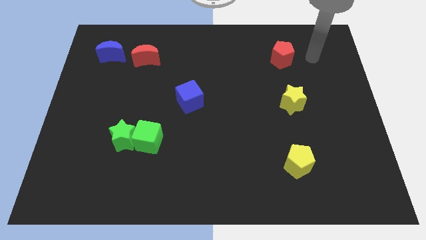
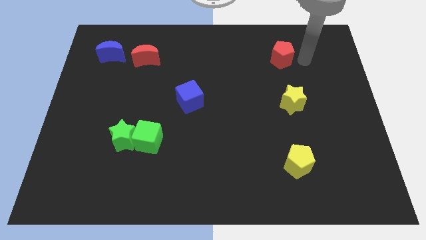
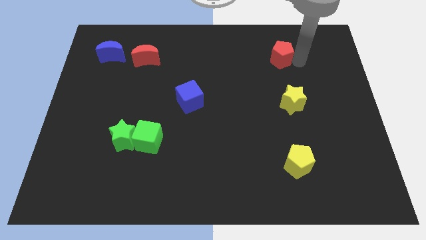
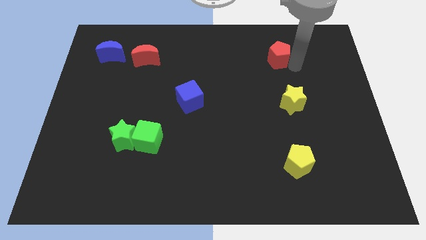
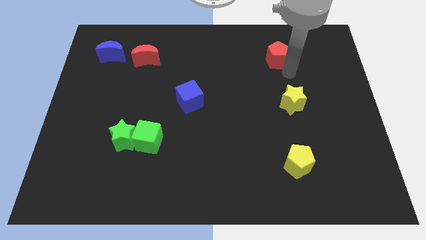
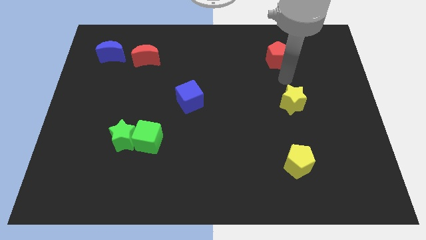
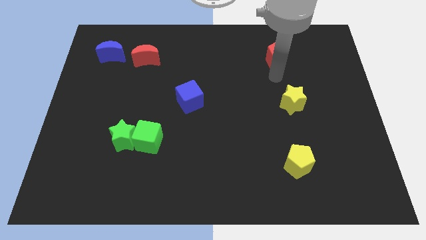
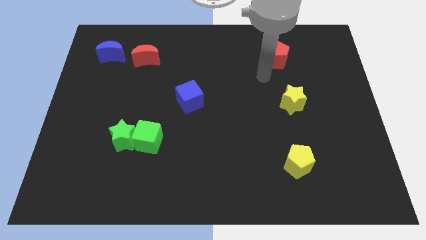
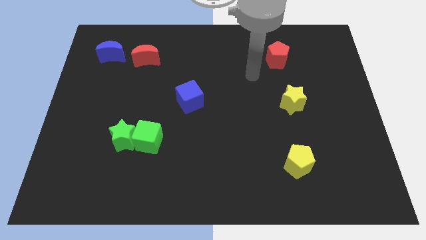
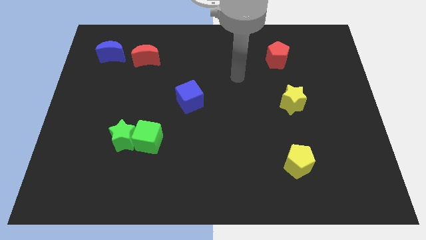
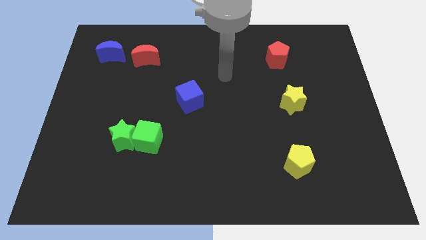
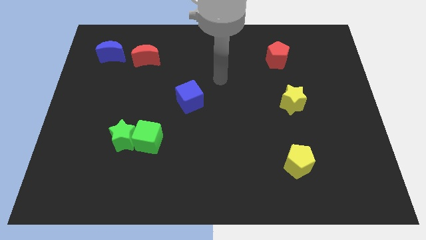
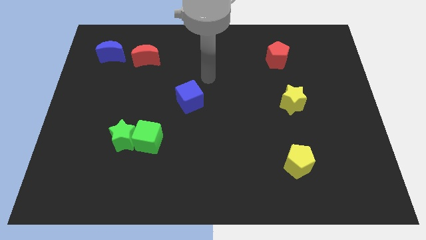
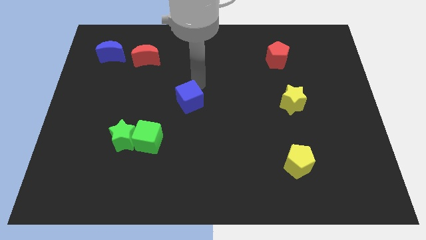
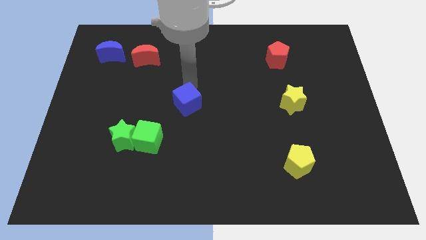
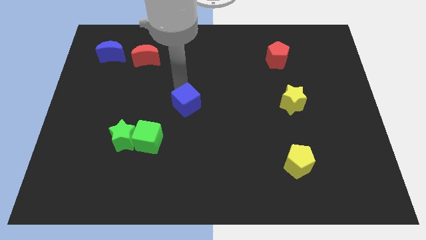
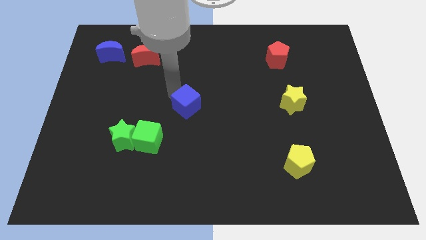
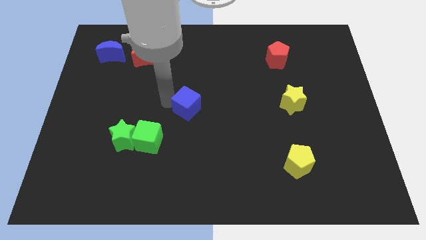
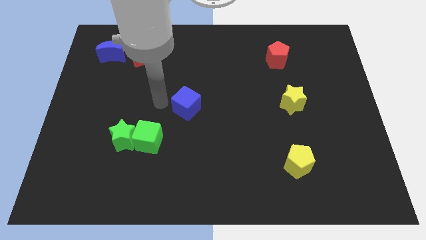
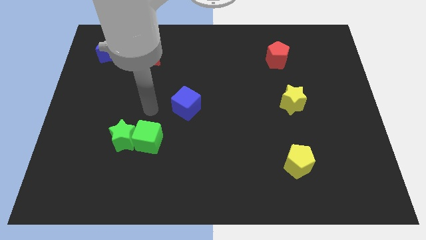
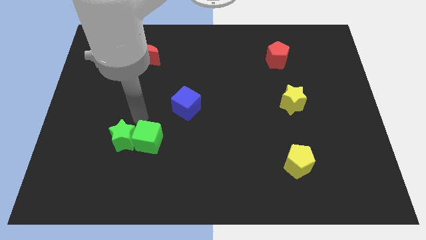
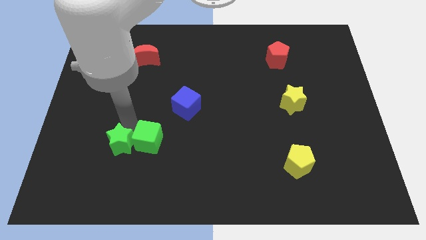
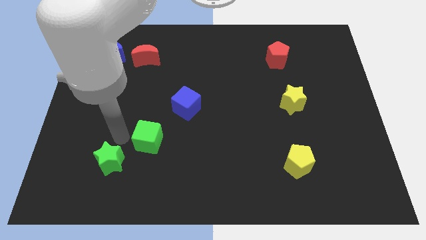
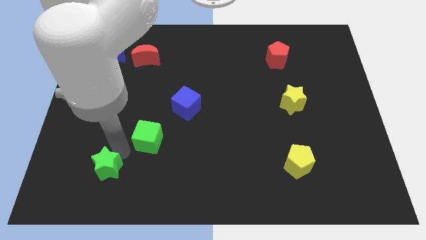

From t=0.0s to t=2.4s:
move the green cube away from the green star

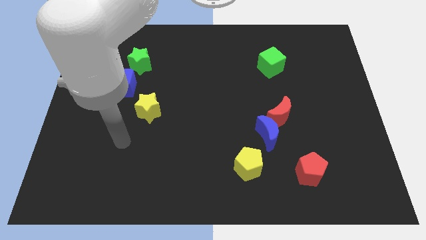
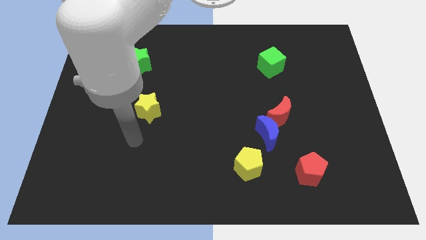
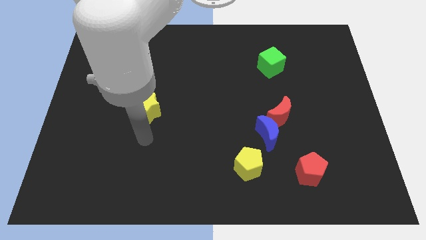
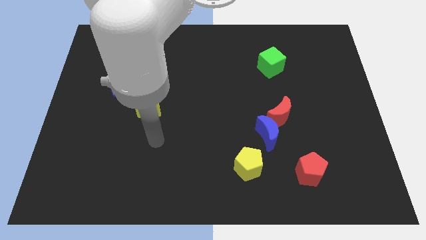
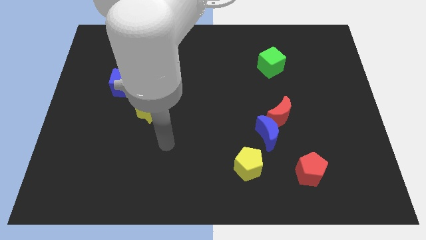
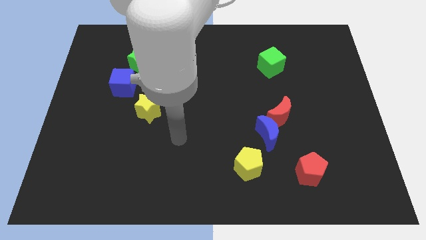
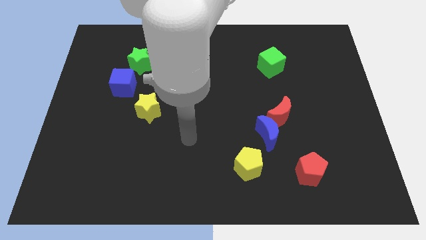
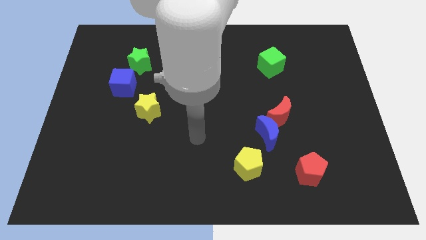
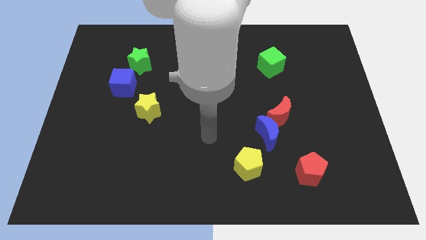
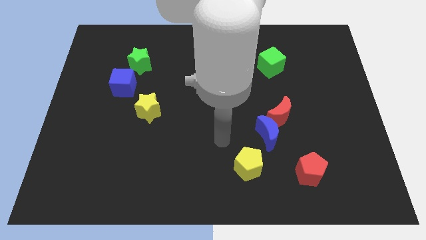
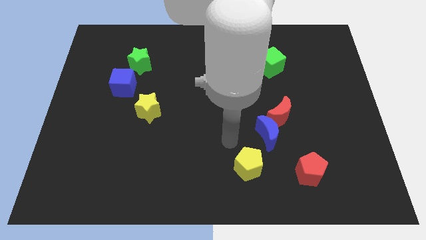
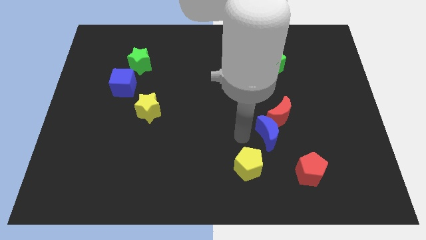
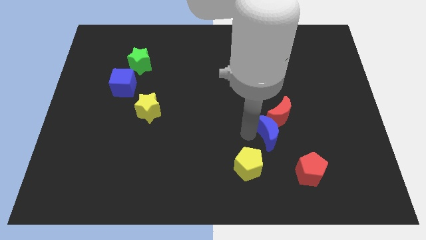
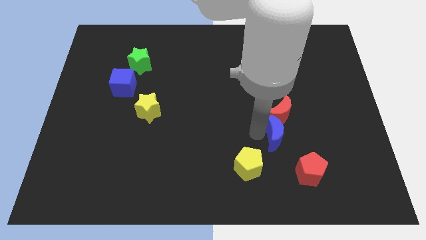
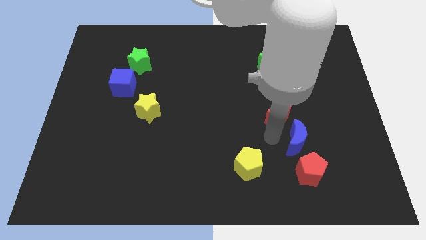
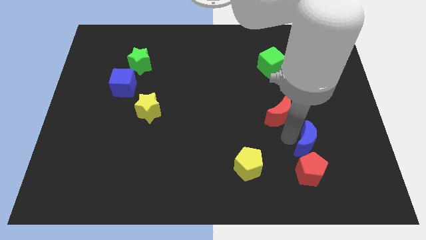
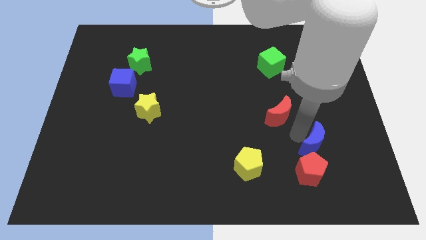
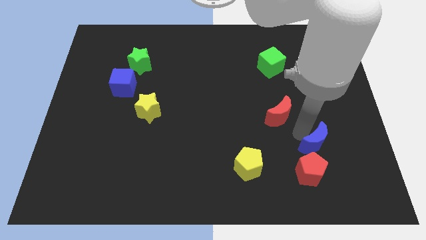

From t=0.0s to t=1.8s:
pull the red moon apart from the blue moon

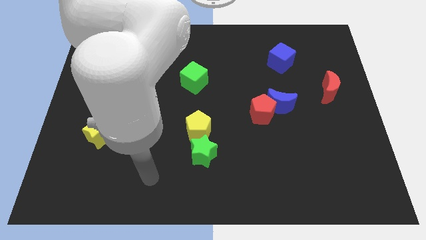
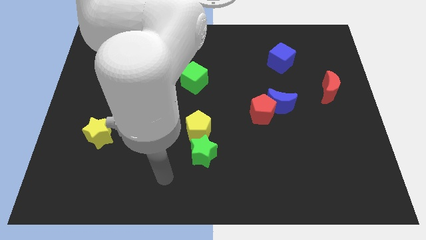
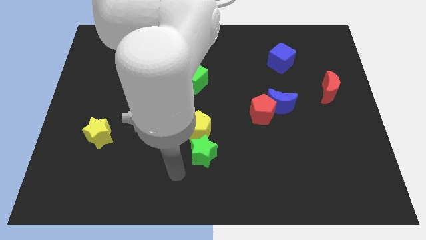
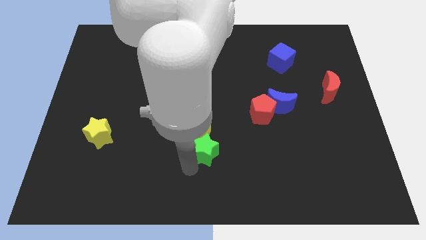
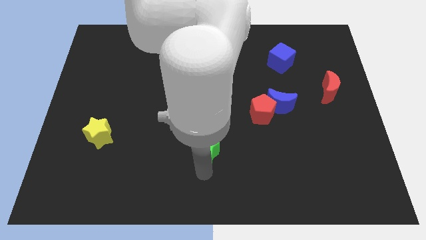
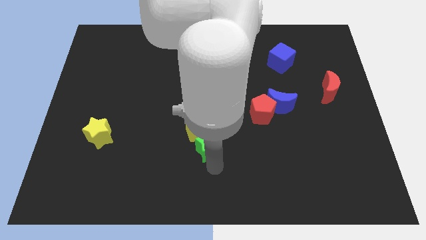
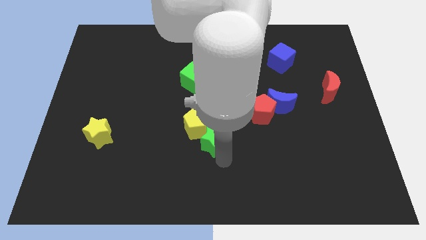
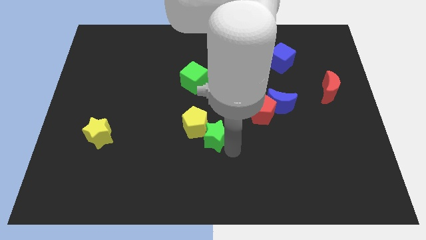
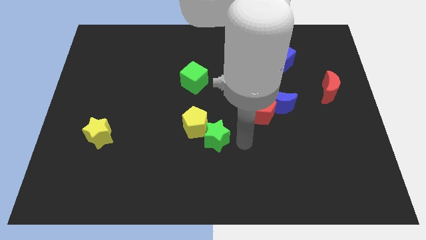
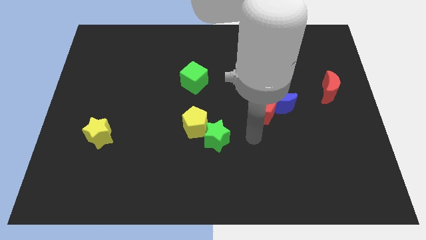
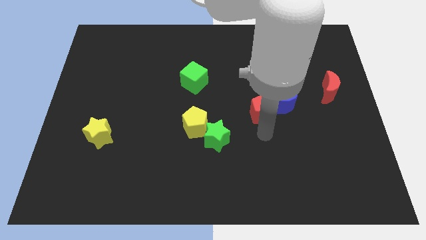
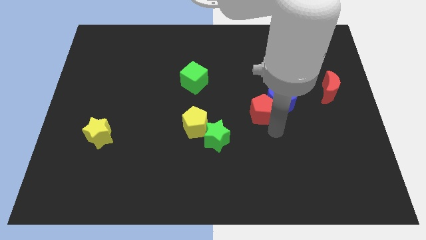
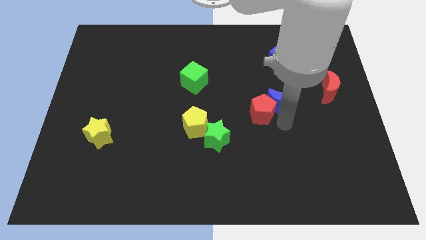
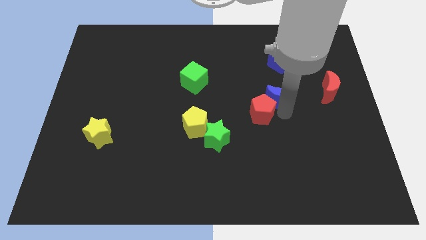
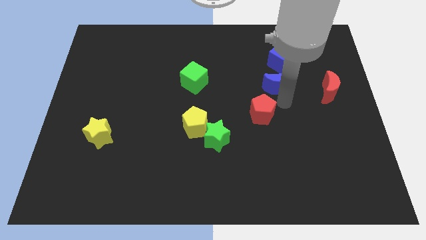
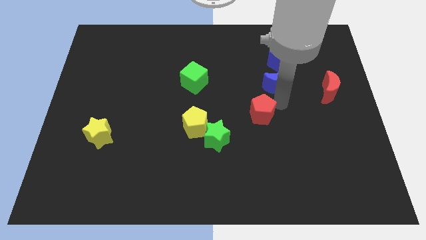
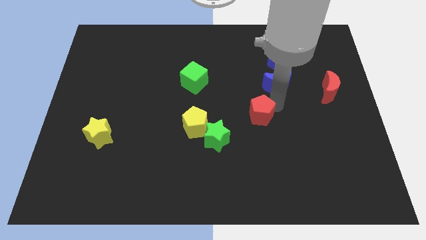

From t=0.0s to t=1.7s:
move the red pentagon away from the blue moon

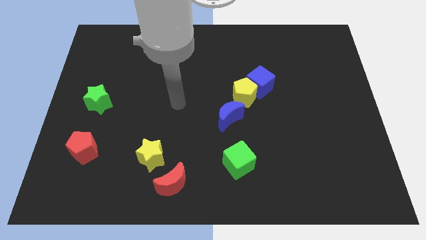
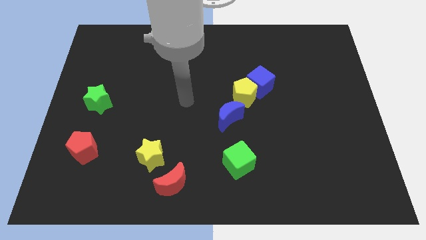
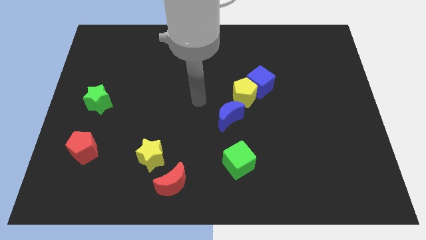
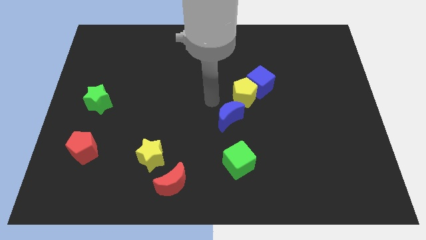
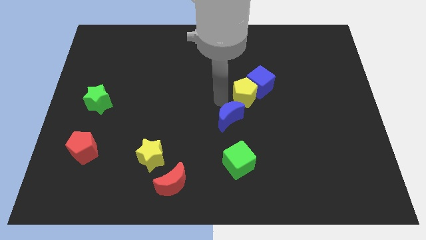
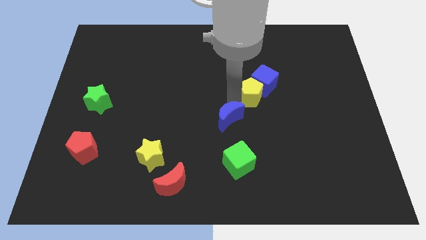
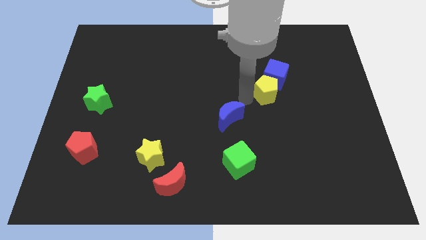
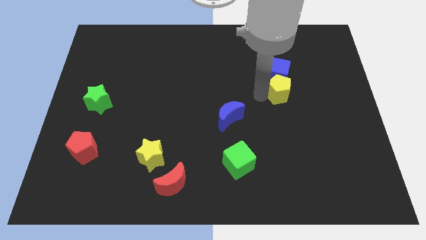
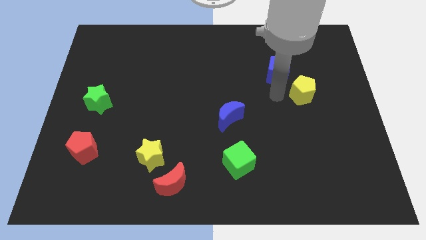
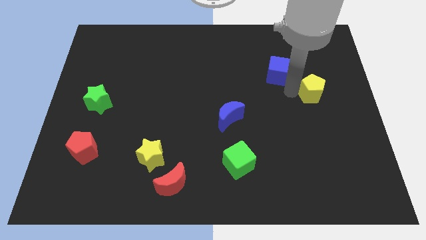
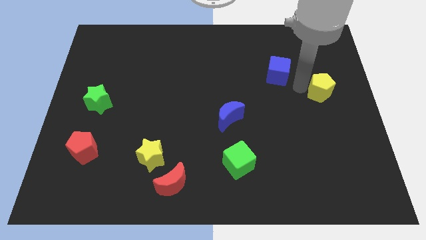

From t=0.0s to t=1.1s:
pull the blue cube apart from the yellow pentagon

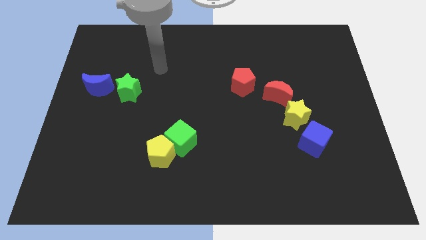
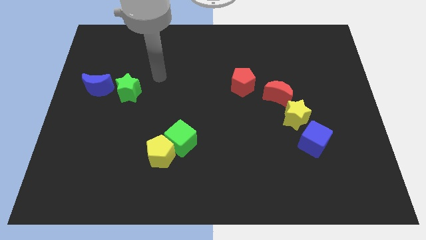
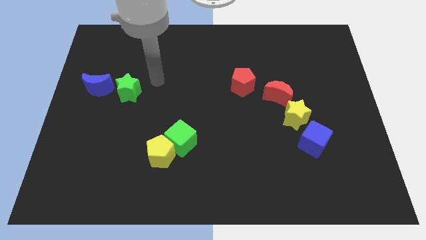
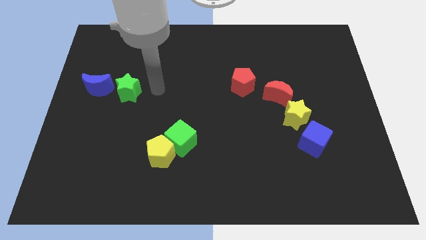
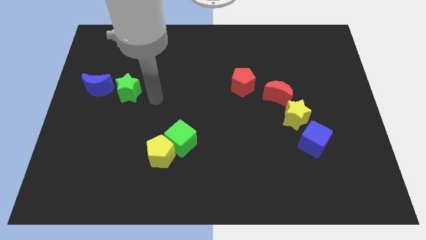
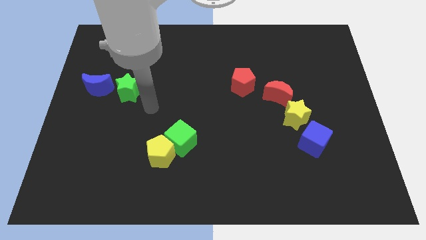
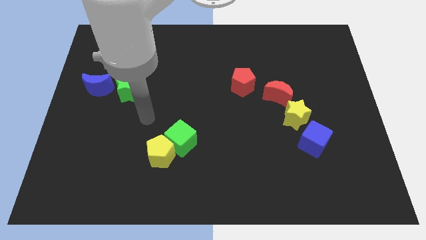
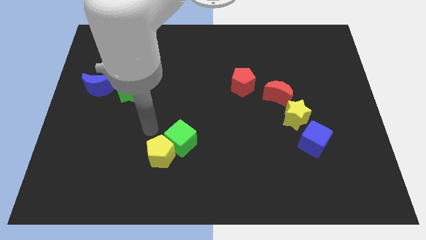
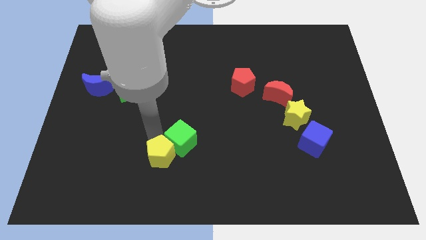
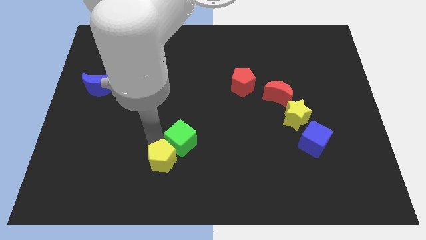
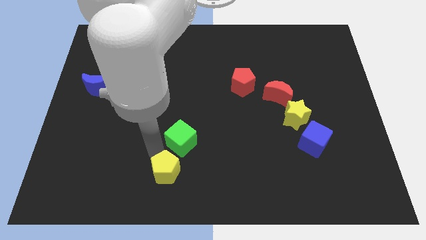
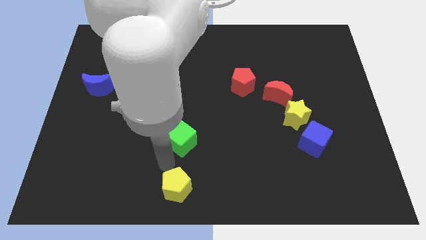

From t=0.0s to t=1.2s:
separate the green cube from the yellow pentagon

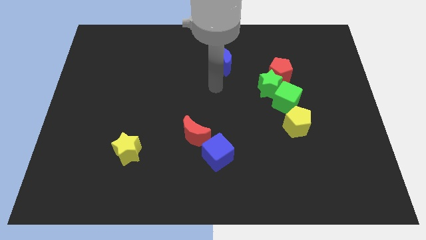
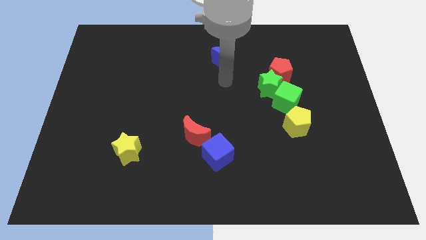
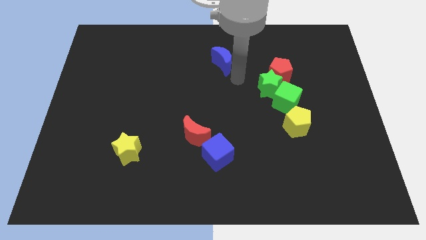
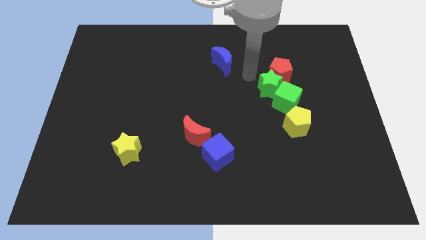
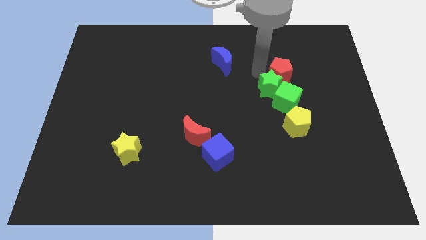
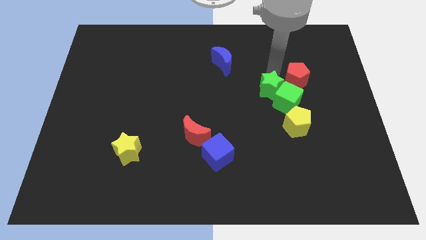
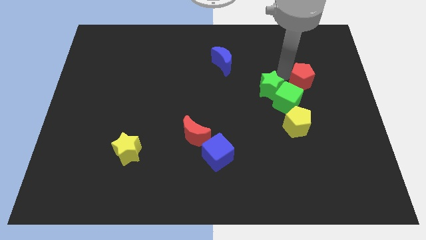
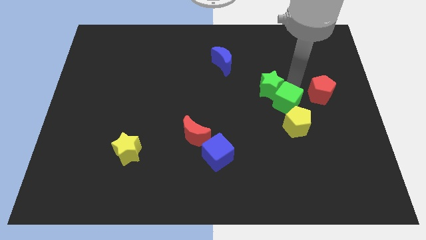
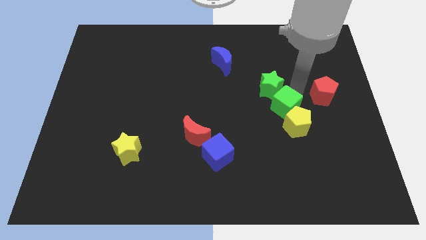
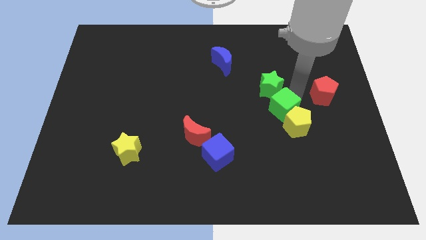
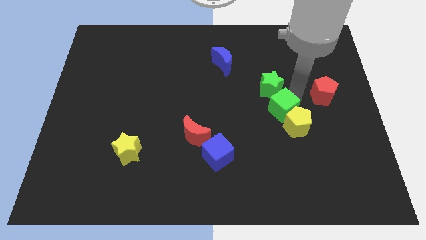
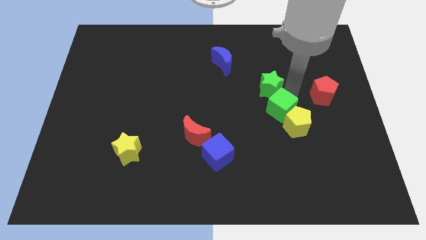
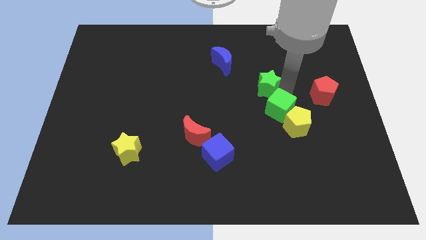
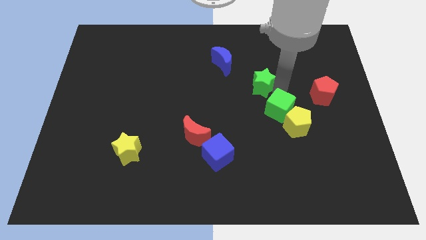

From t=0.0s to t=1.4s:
separate the green star from the red pentagon and green cube
